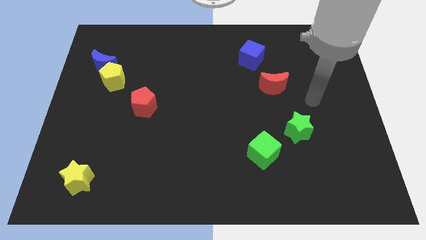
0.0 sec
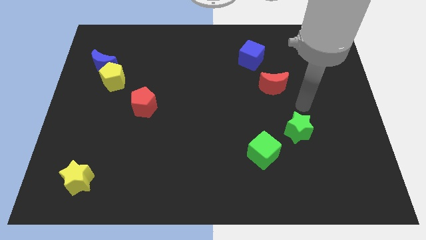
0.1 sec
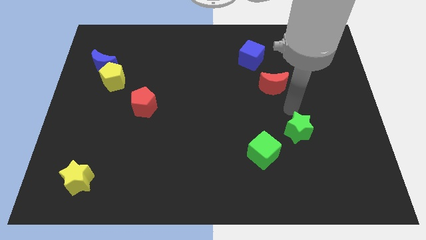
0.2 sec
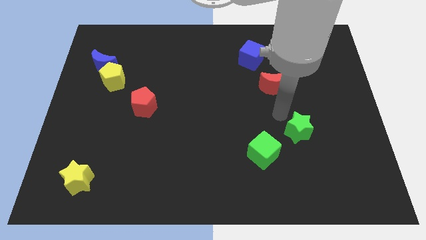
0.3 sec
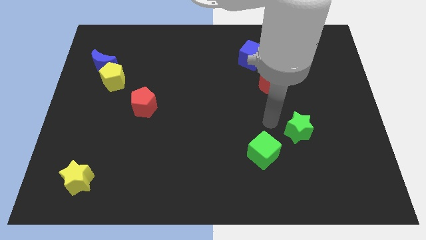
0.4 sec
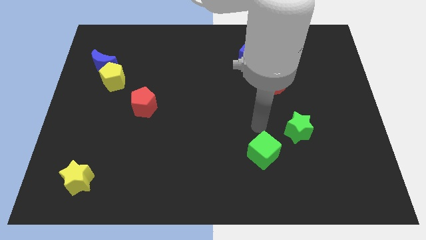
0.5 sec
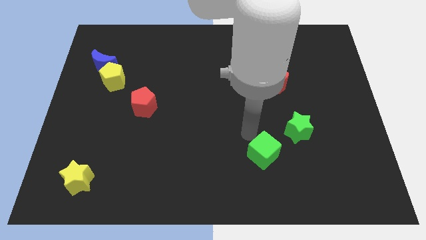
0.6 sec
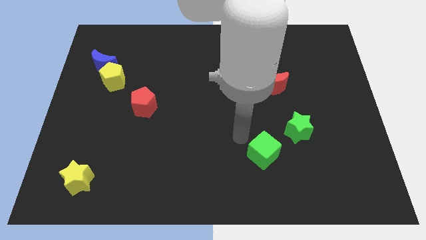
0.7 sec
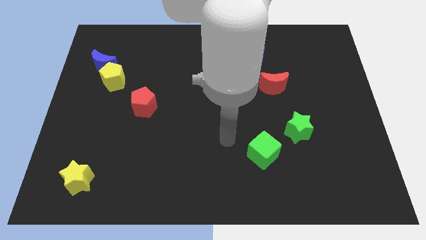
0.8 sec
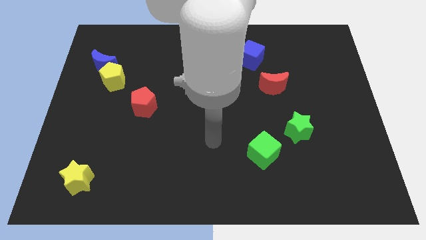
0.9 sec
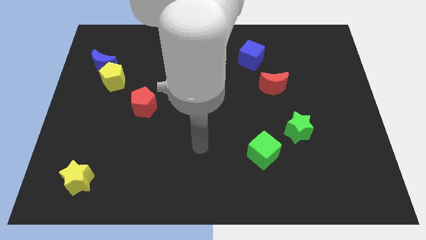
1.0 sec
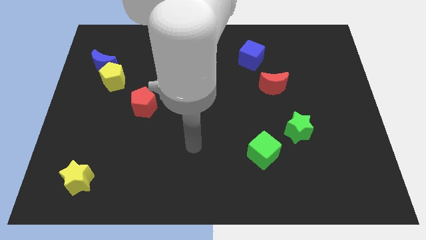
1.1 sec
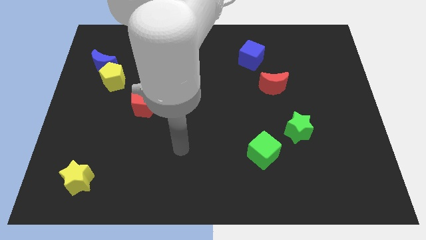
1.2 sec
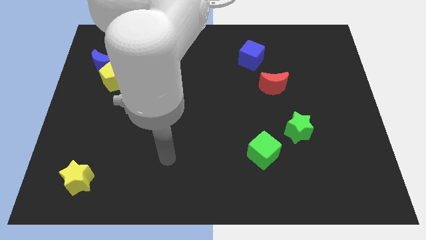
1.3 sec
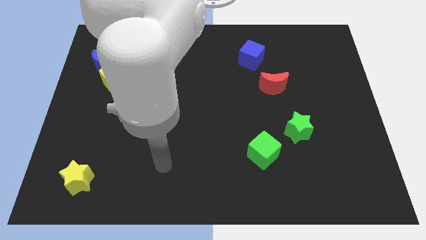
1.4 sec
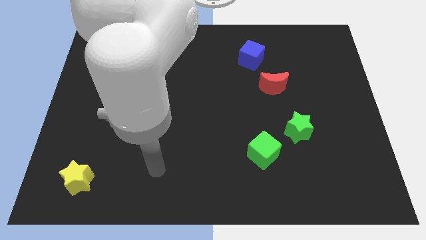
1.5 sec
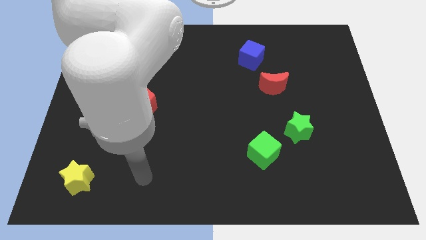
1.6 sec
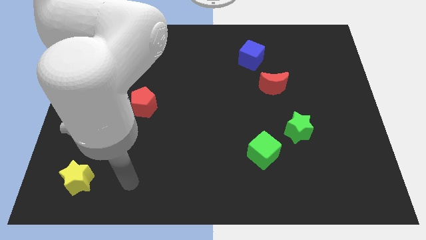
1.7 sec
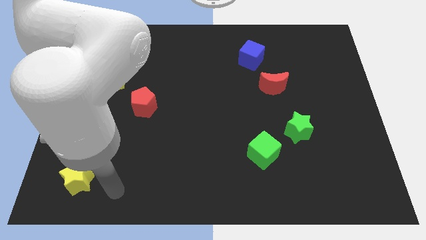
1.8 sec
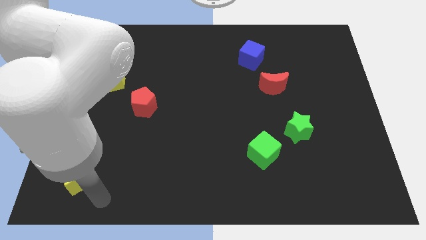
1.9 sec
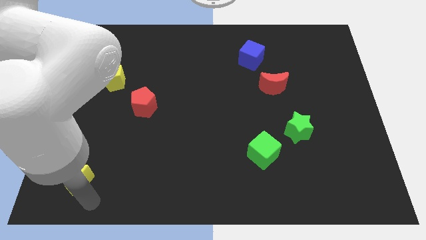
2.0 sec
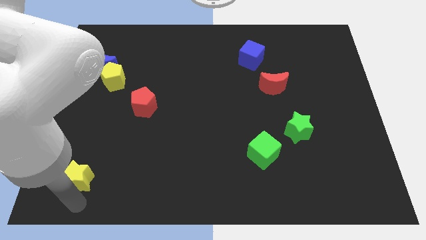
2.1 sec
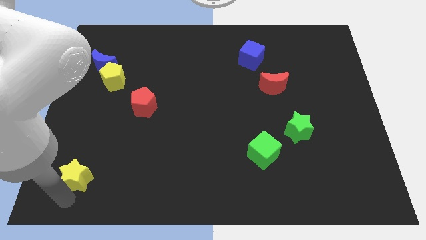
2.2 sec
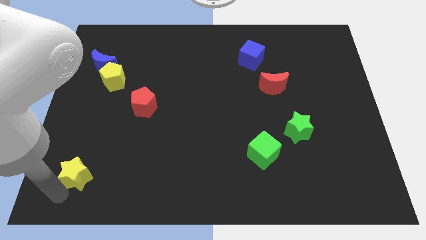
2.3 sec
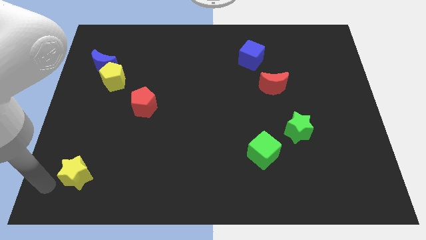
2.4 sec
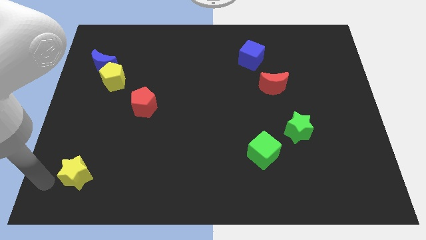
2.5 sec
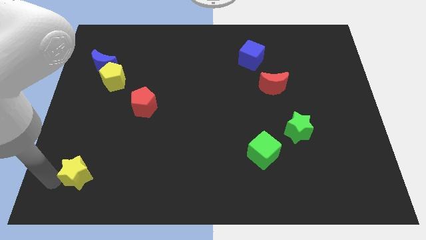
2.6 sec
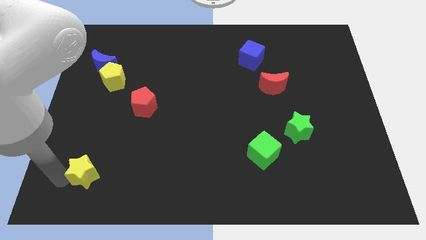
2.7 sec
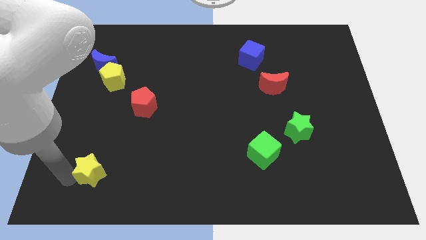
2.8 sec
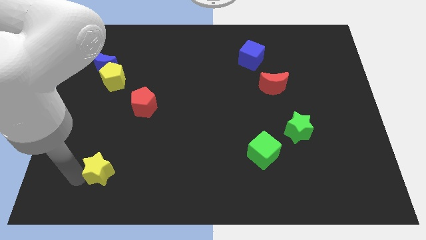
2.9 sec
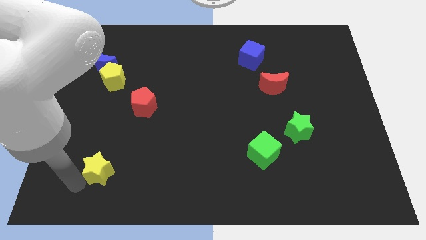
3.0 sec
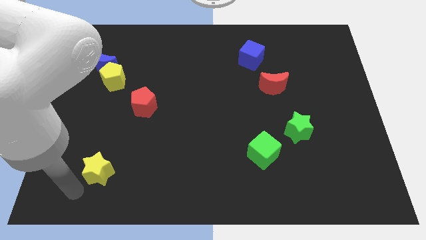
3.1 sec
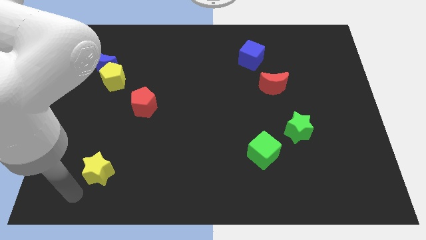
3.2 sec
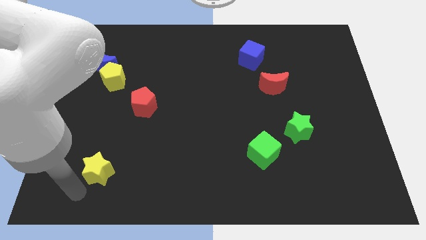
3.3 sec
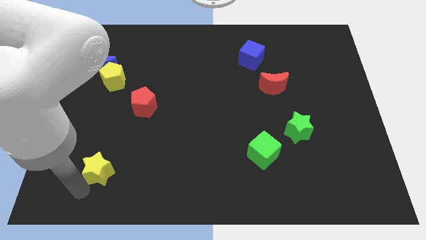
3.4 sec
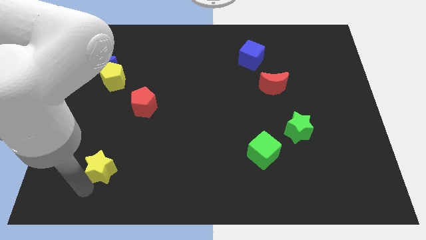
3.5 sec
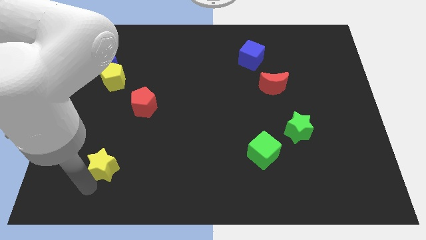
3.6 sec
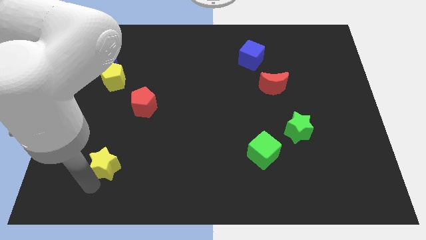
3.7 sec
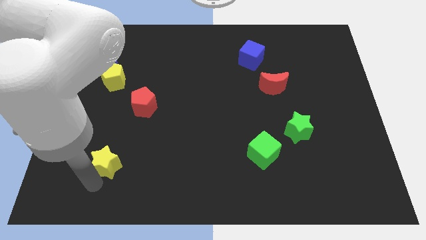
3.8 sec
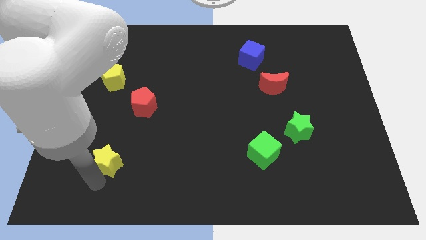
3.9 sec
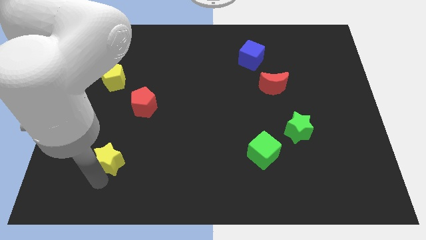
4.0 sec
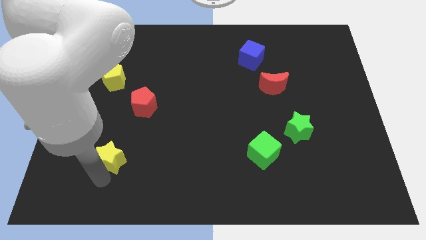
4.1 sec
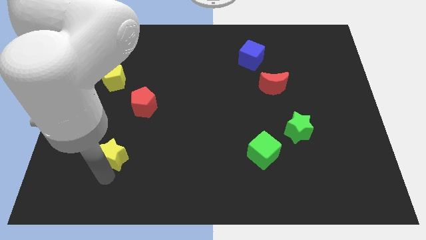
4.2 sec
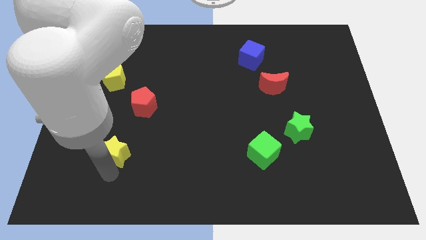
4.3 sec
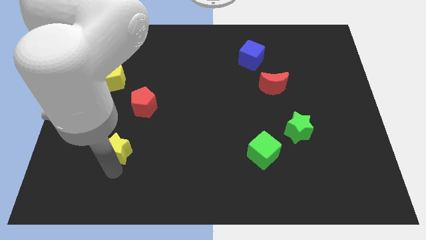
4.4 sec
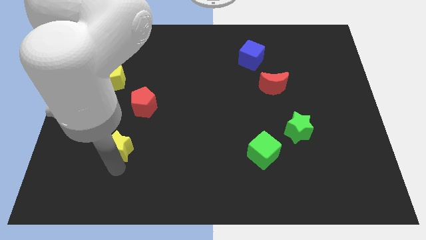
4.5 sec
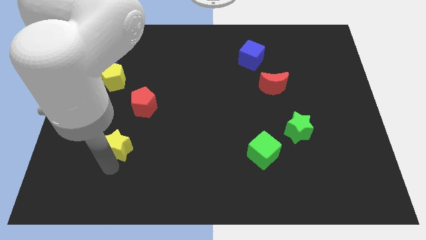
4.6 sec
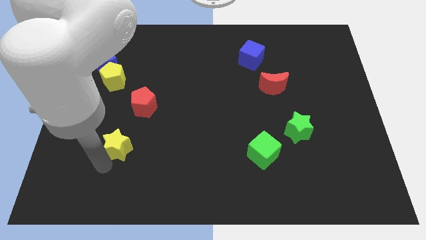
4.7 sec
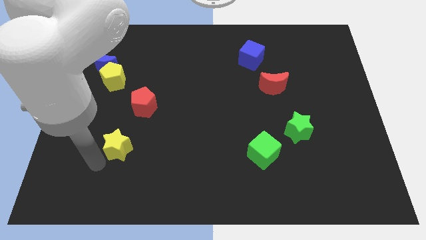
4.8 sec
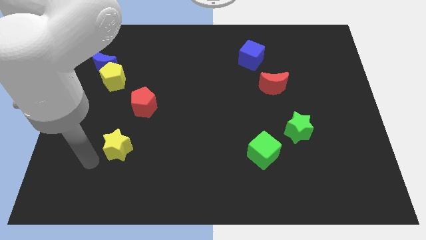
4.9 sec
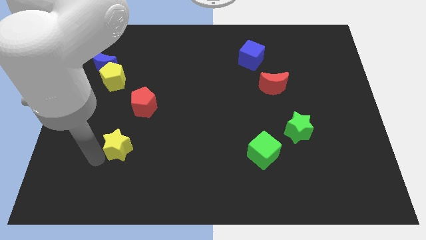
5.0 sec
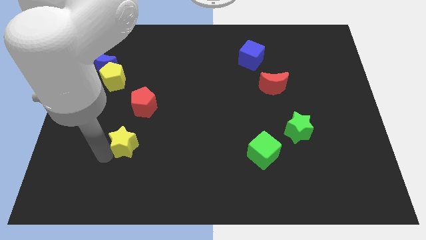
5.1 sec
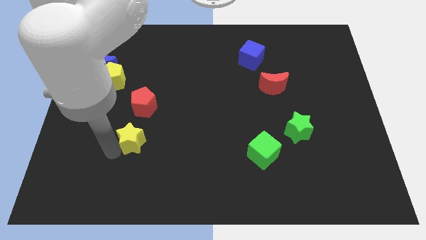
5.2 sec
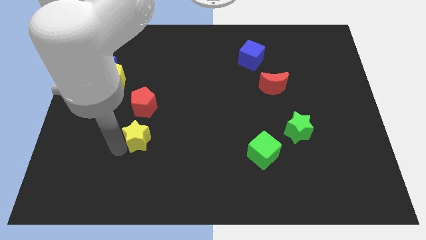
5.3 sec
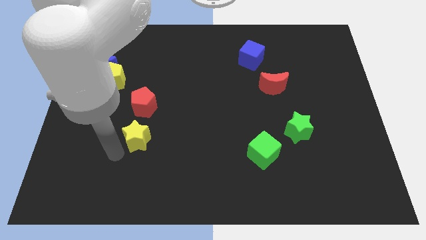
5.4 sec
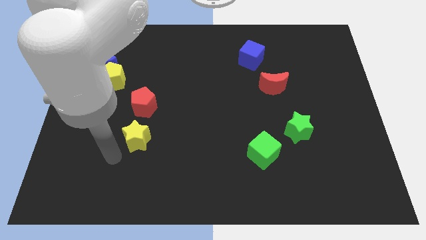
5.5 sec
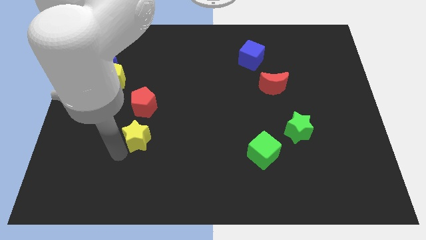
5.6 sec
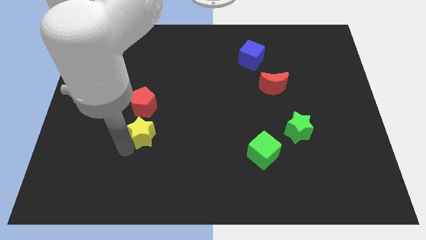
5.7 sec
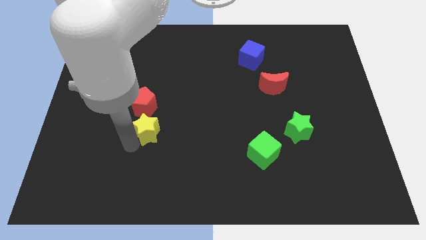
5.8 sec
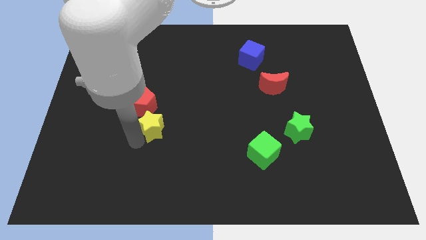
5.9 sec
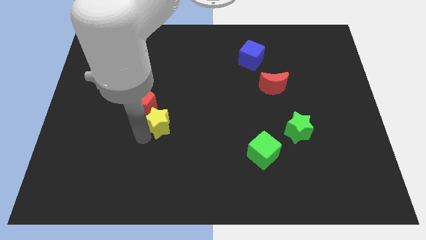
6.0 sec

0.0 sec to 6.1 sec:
push the yellow star diagonally up and to the right

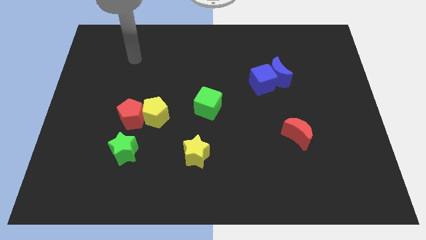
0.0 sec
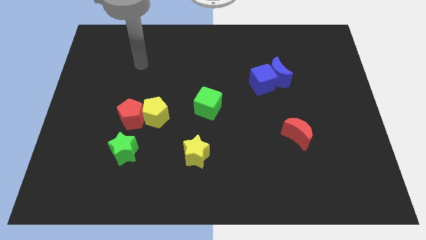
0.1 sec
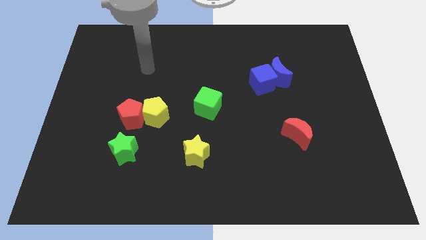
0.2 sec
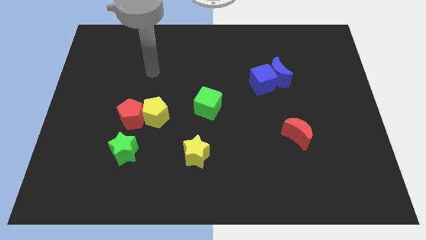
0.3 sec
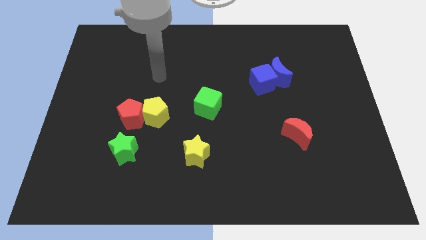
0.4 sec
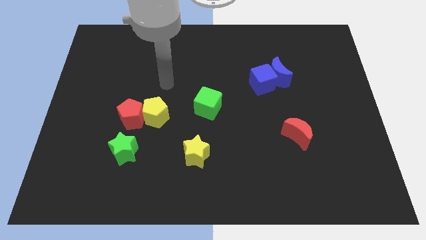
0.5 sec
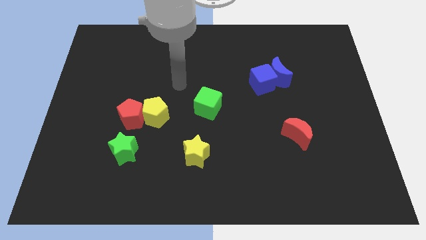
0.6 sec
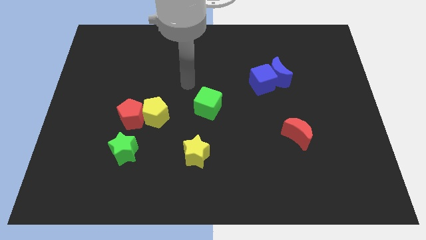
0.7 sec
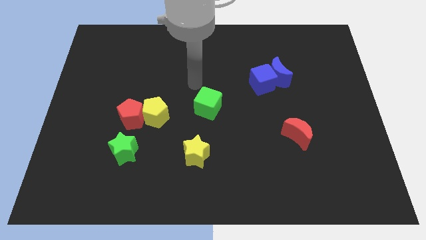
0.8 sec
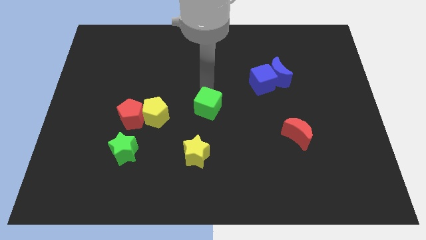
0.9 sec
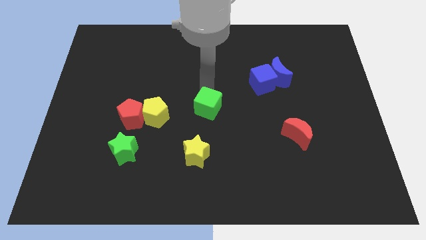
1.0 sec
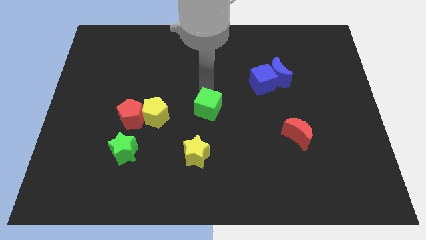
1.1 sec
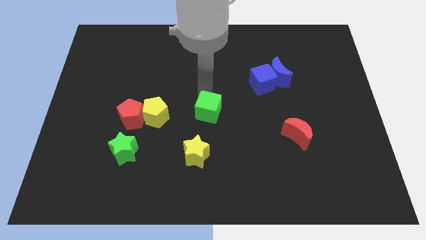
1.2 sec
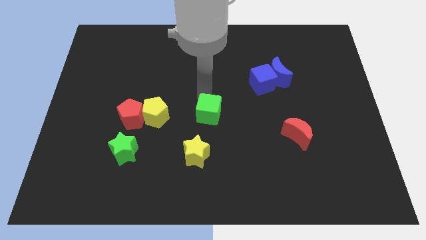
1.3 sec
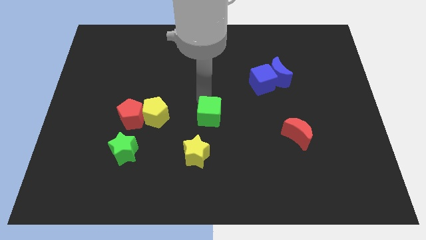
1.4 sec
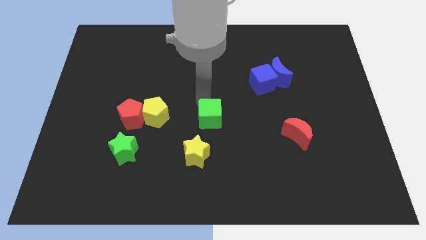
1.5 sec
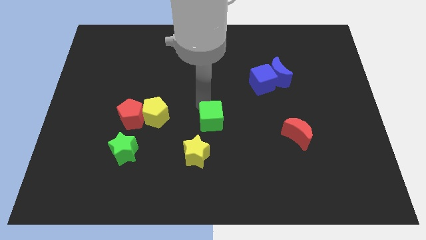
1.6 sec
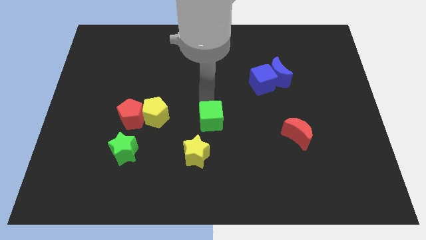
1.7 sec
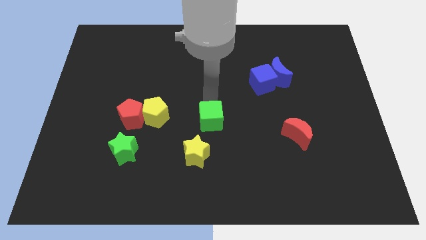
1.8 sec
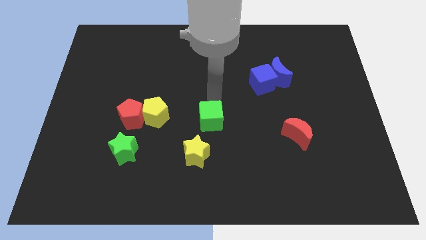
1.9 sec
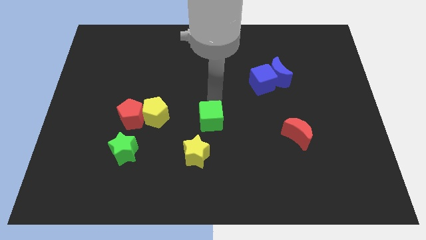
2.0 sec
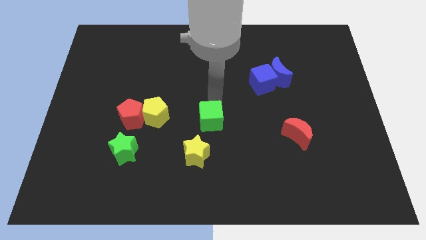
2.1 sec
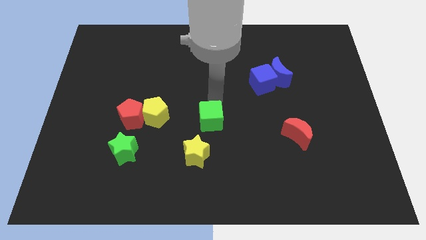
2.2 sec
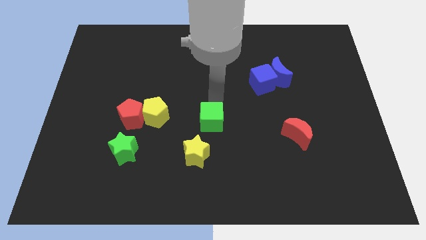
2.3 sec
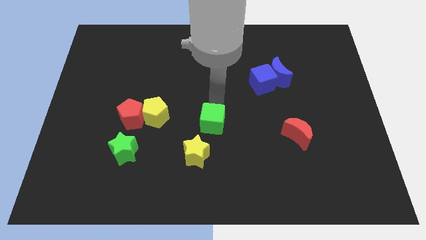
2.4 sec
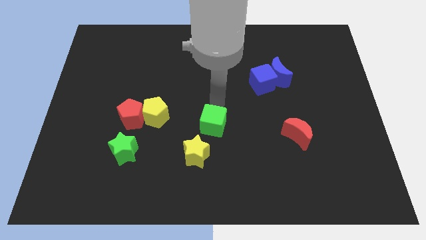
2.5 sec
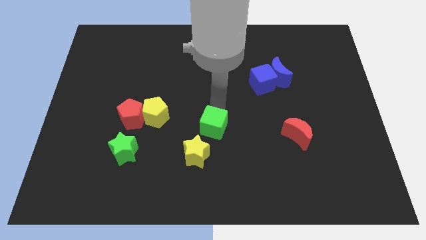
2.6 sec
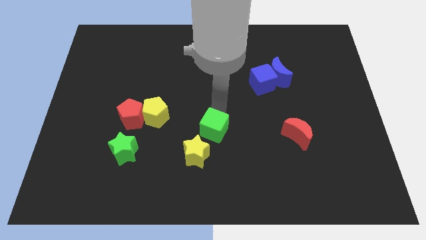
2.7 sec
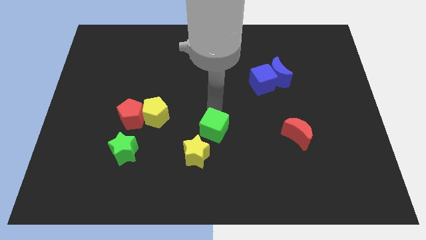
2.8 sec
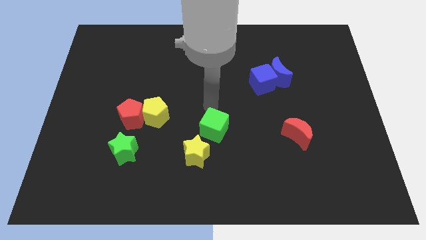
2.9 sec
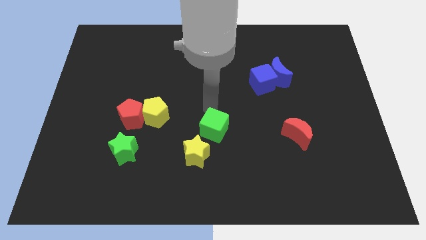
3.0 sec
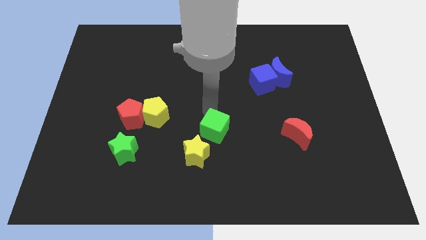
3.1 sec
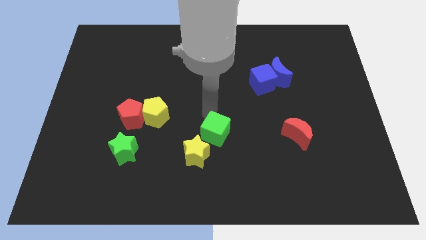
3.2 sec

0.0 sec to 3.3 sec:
slightly move the green cube down
